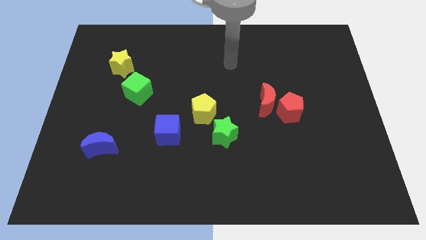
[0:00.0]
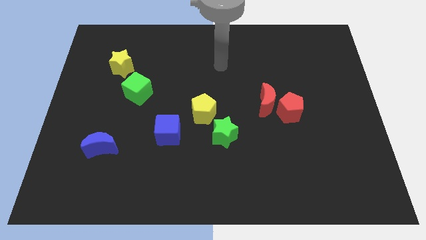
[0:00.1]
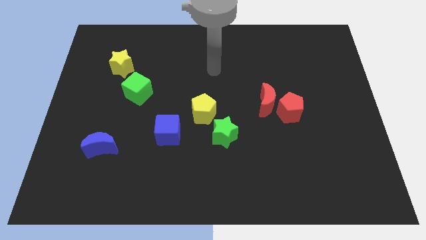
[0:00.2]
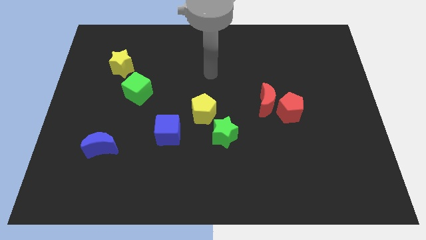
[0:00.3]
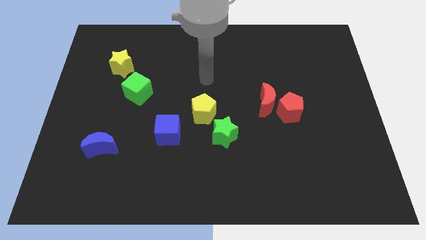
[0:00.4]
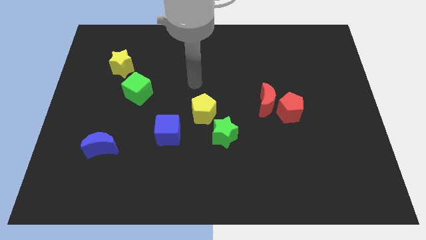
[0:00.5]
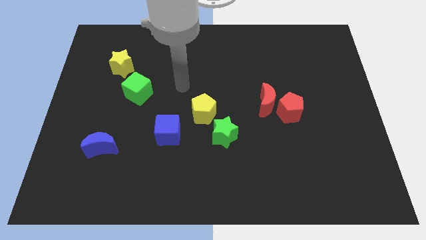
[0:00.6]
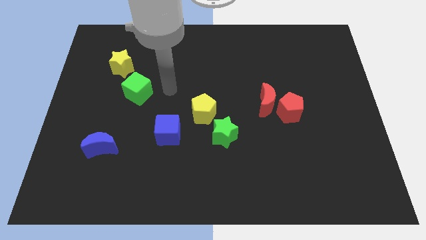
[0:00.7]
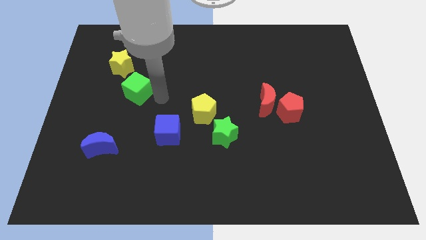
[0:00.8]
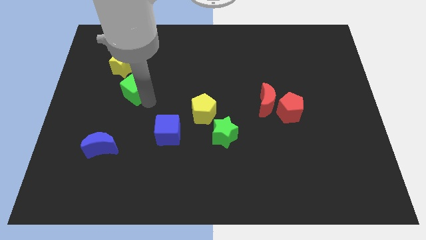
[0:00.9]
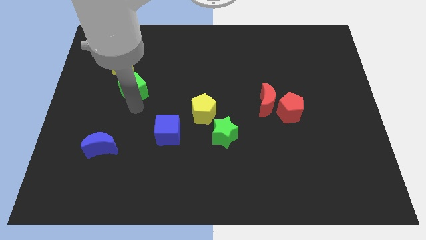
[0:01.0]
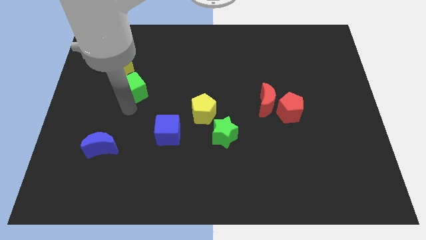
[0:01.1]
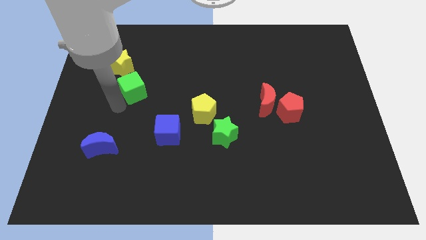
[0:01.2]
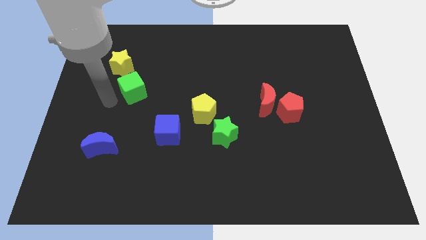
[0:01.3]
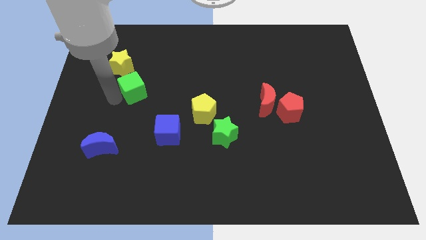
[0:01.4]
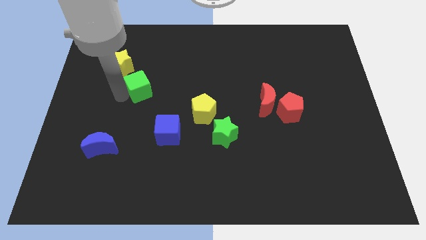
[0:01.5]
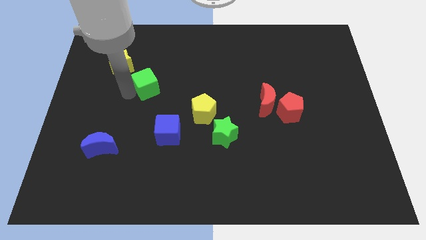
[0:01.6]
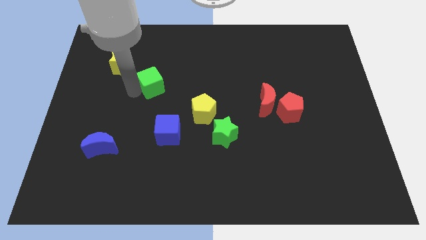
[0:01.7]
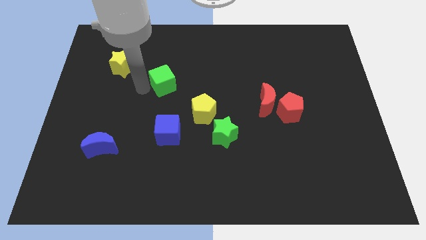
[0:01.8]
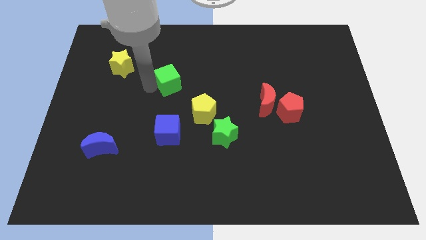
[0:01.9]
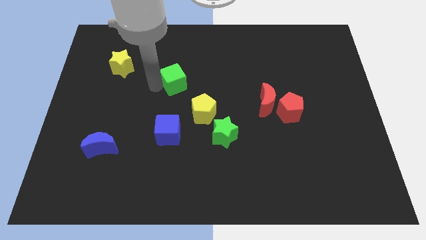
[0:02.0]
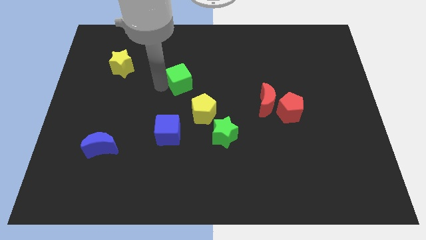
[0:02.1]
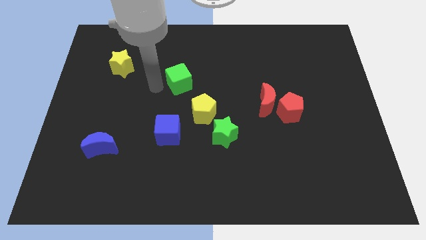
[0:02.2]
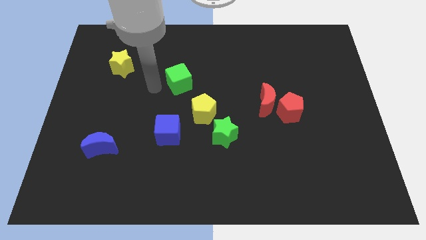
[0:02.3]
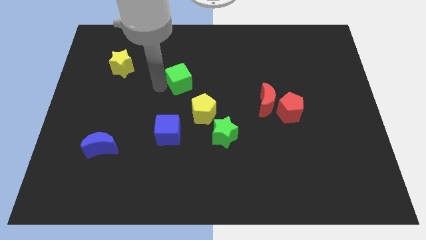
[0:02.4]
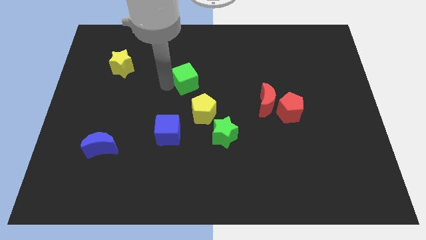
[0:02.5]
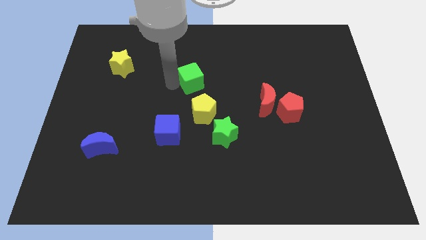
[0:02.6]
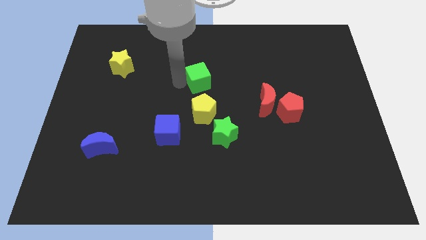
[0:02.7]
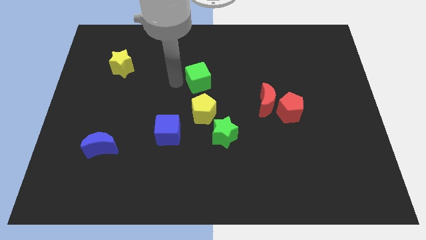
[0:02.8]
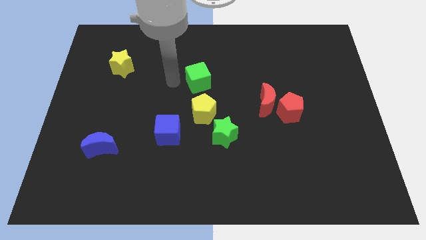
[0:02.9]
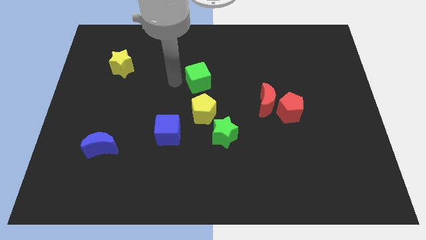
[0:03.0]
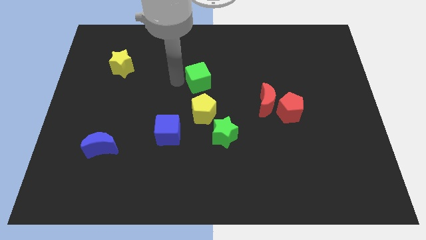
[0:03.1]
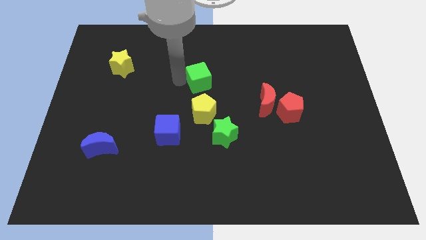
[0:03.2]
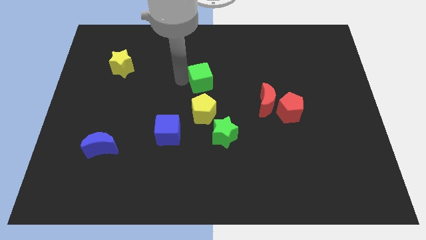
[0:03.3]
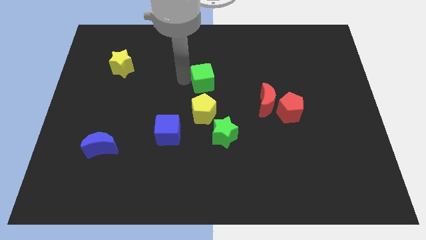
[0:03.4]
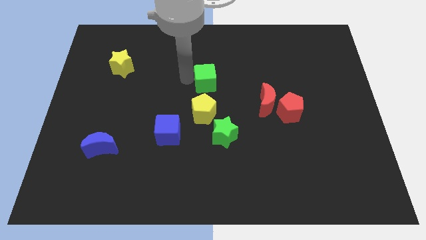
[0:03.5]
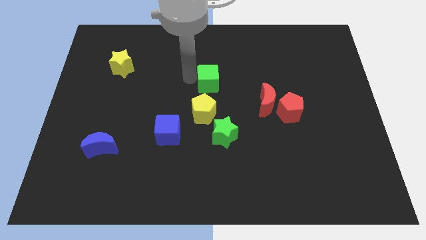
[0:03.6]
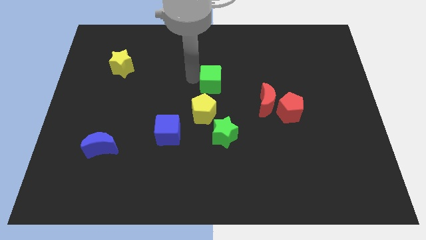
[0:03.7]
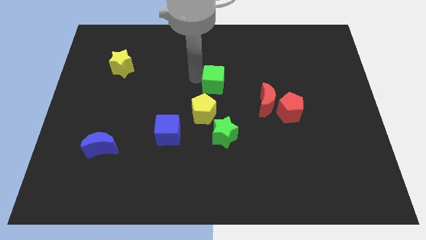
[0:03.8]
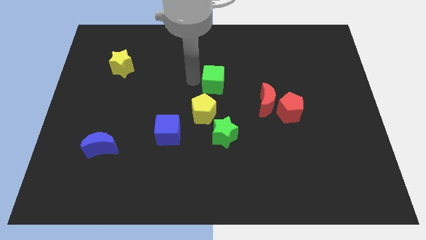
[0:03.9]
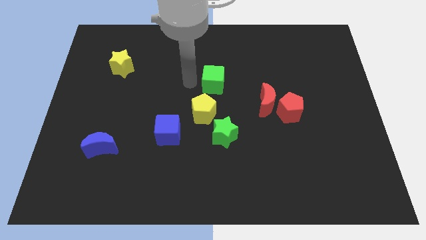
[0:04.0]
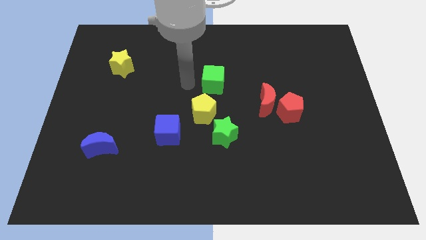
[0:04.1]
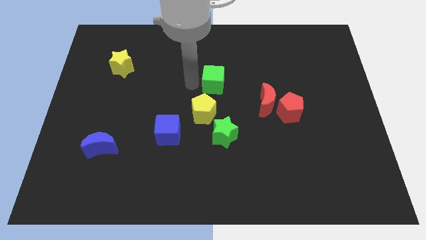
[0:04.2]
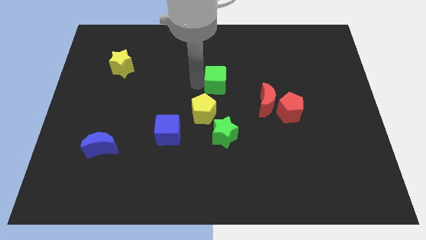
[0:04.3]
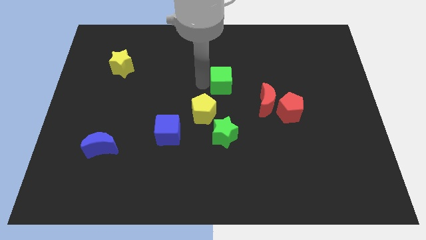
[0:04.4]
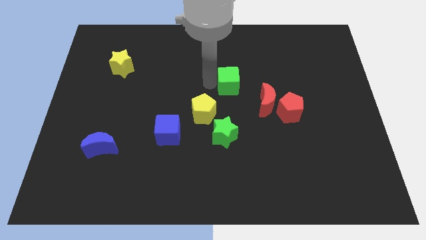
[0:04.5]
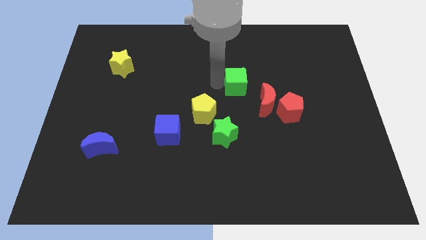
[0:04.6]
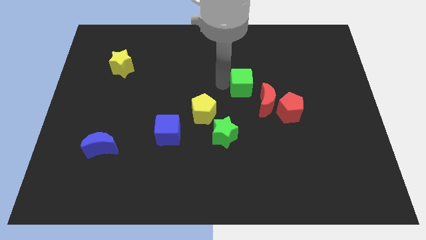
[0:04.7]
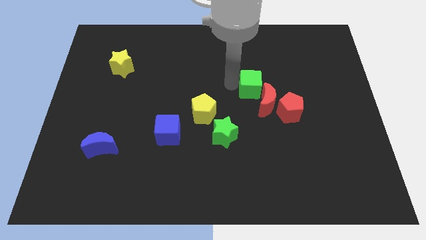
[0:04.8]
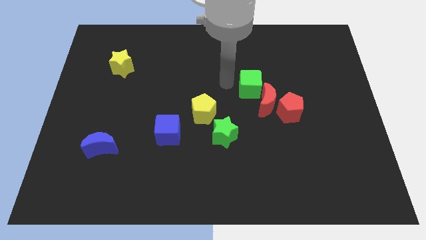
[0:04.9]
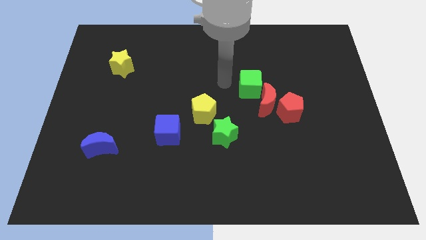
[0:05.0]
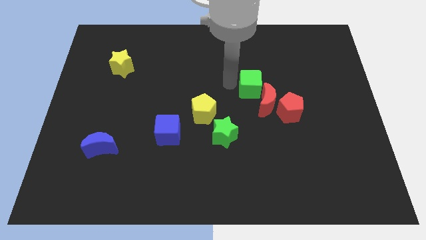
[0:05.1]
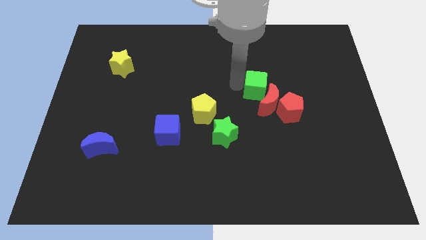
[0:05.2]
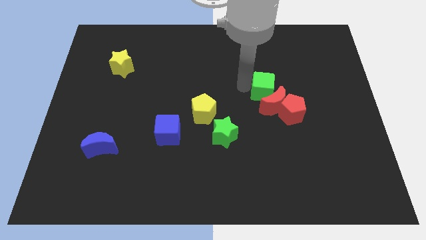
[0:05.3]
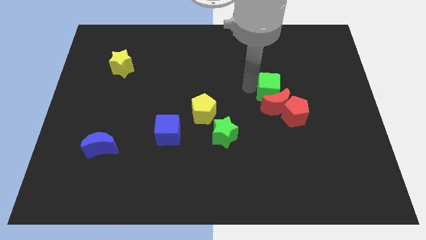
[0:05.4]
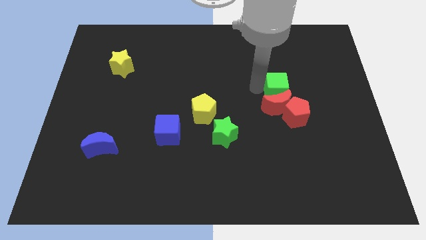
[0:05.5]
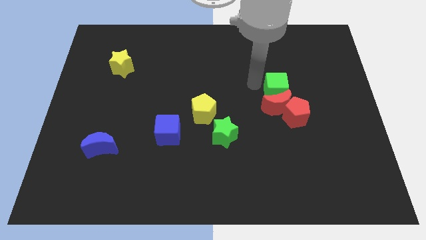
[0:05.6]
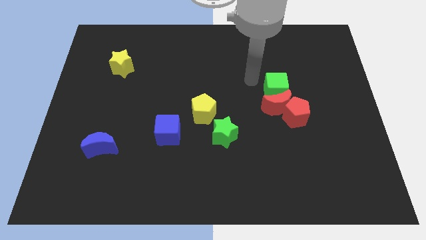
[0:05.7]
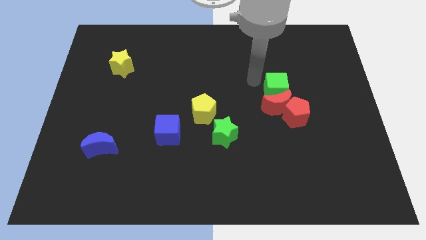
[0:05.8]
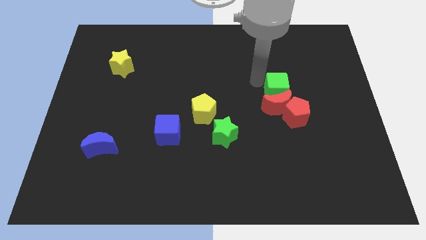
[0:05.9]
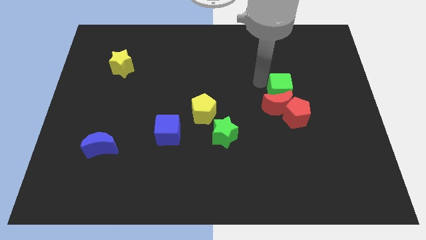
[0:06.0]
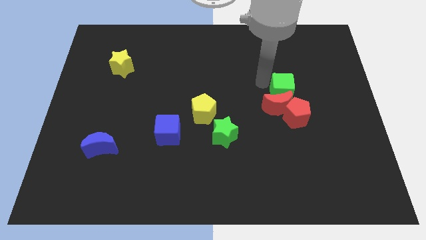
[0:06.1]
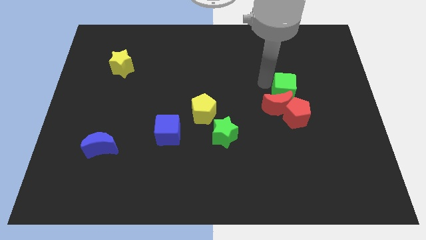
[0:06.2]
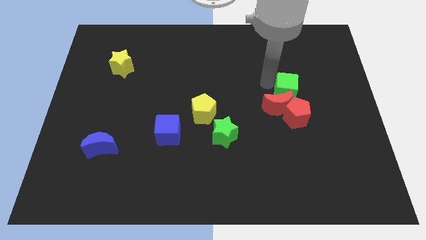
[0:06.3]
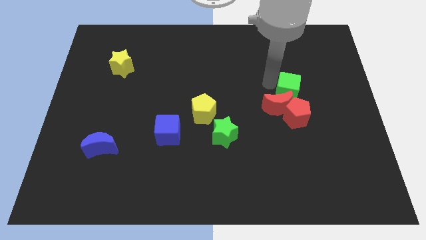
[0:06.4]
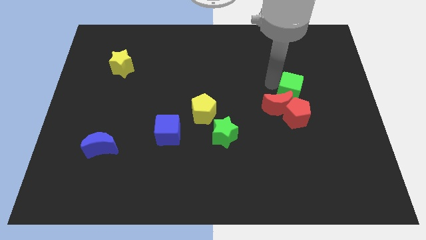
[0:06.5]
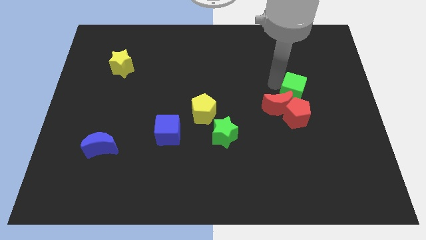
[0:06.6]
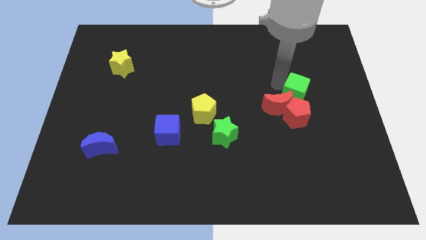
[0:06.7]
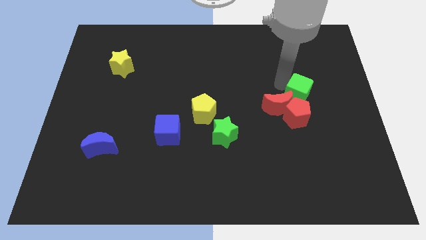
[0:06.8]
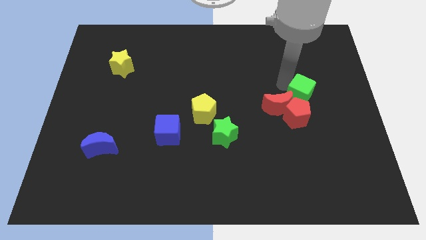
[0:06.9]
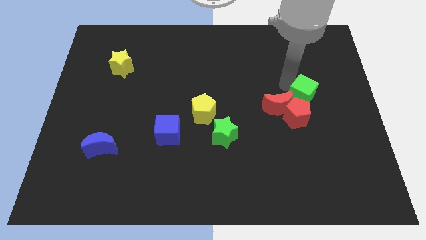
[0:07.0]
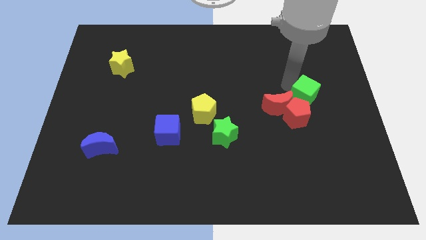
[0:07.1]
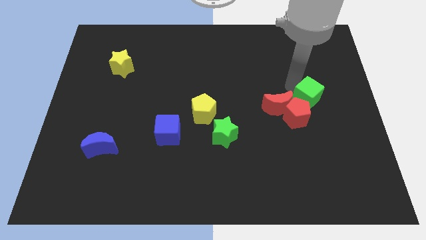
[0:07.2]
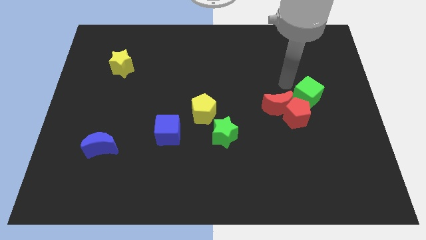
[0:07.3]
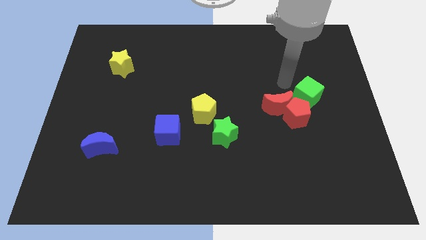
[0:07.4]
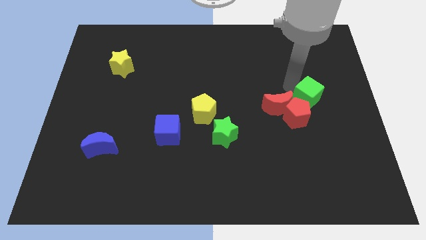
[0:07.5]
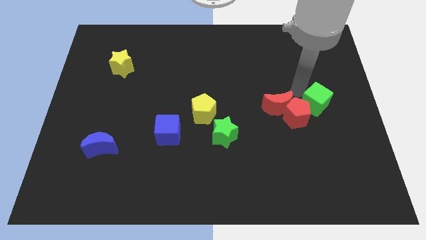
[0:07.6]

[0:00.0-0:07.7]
put the green cube to the right of the red pentagon
